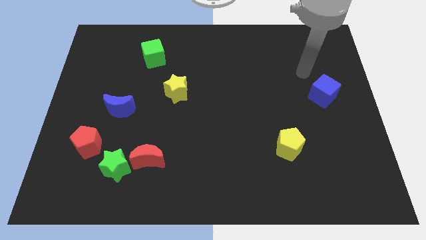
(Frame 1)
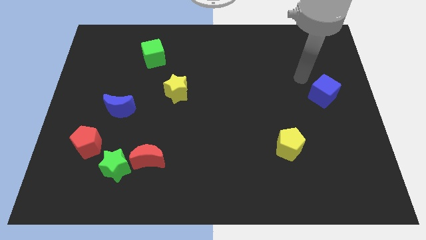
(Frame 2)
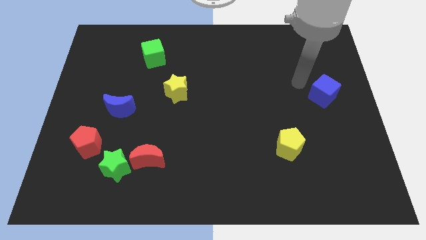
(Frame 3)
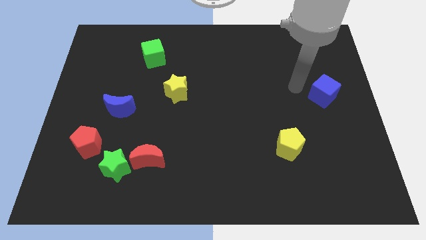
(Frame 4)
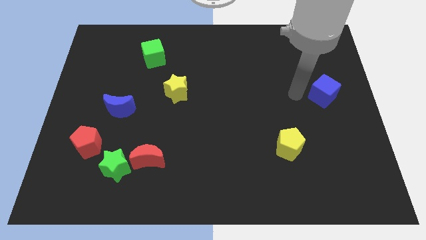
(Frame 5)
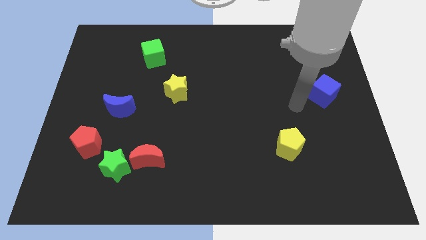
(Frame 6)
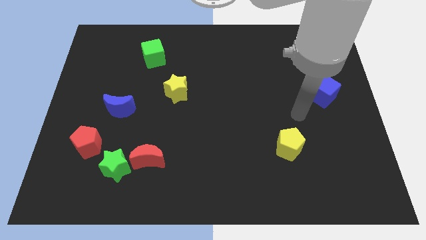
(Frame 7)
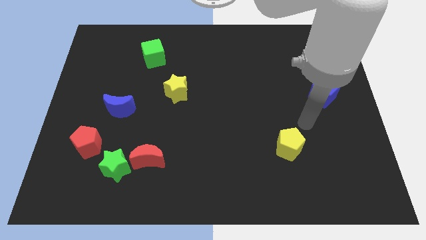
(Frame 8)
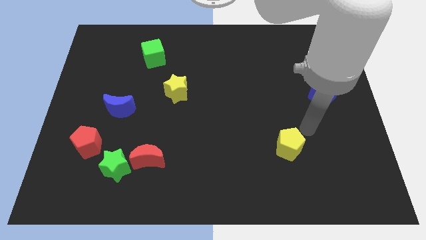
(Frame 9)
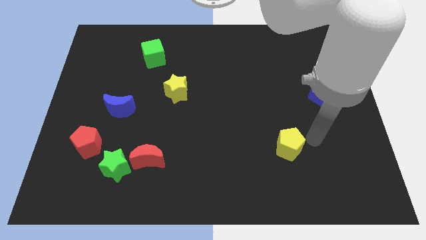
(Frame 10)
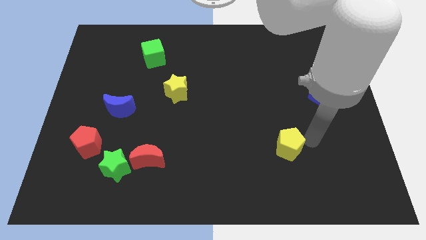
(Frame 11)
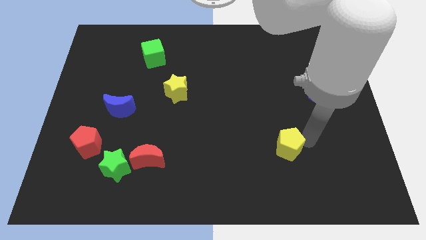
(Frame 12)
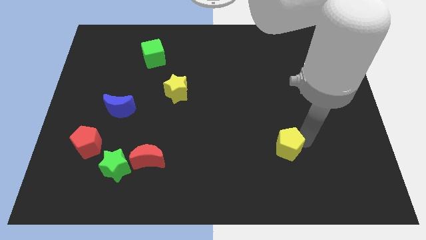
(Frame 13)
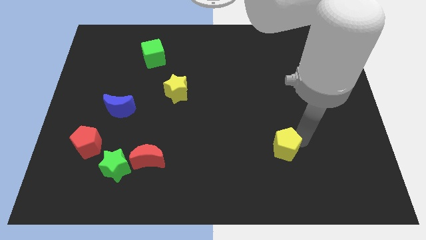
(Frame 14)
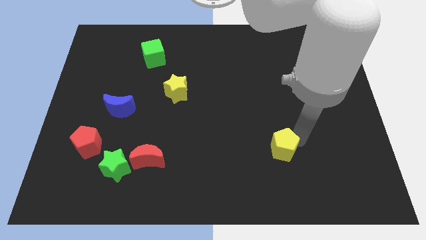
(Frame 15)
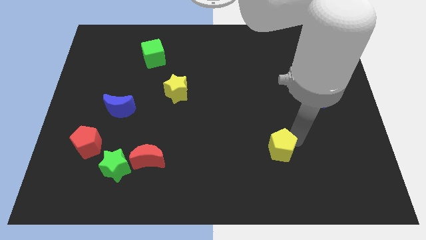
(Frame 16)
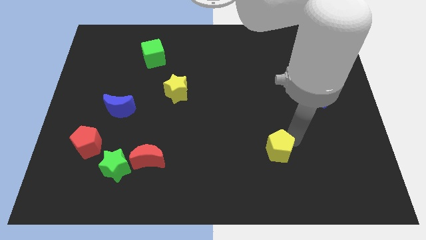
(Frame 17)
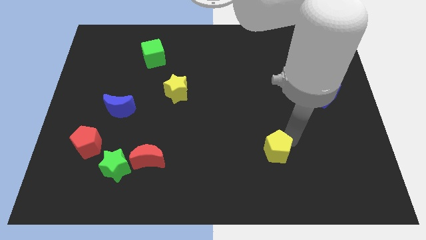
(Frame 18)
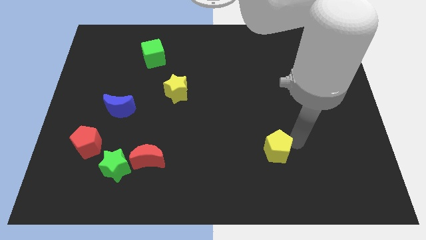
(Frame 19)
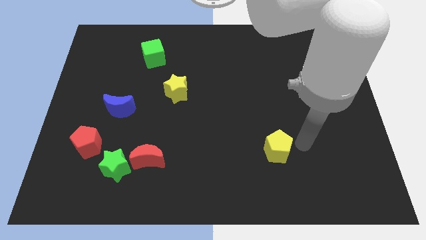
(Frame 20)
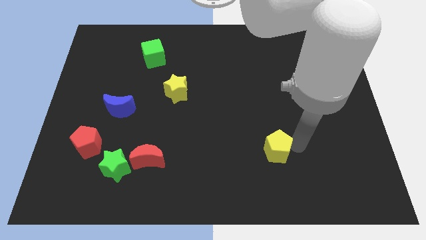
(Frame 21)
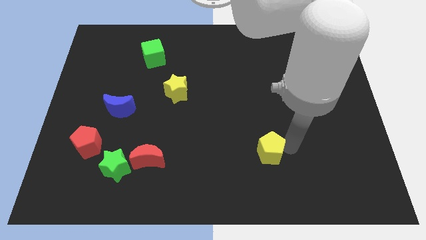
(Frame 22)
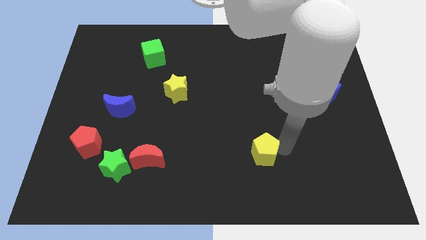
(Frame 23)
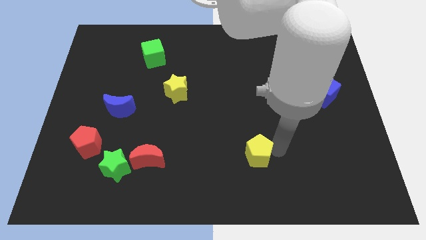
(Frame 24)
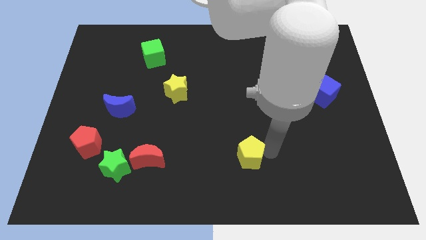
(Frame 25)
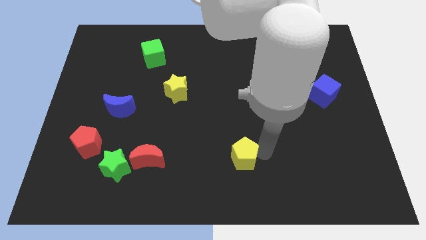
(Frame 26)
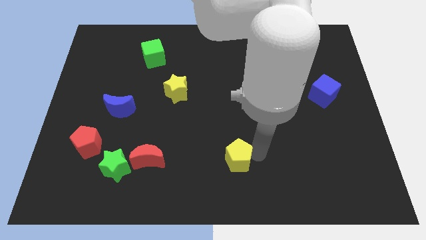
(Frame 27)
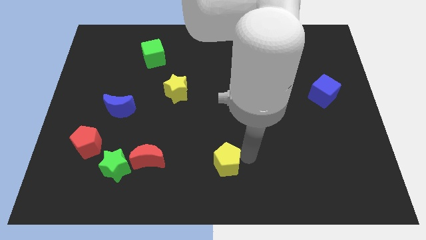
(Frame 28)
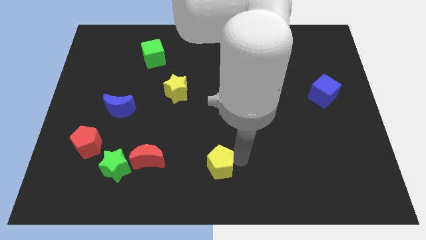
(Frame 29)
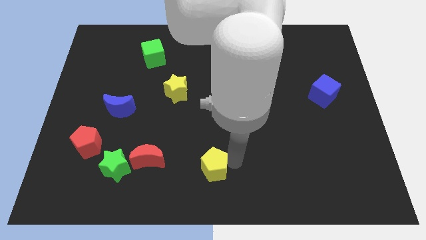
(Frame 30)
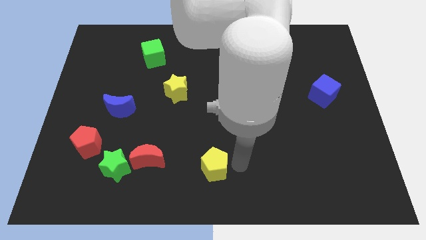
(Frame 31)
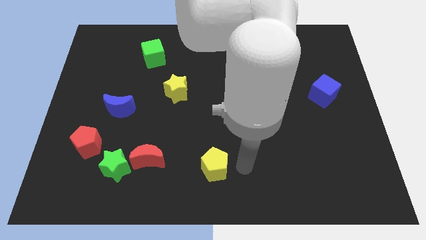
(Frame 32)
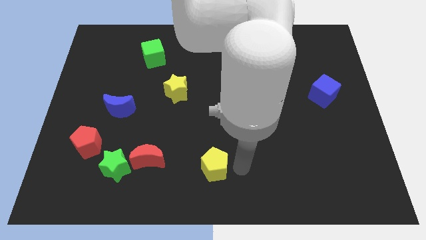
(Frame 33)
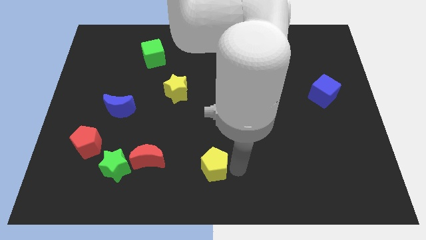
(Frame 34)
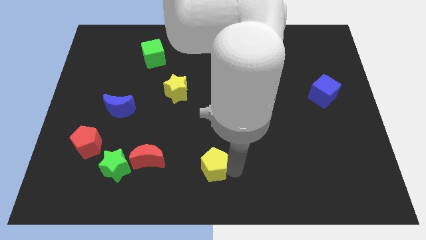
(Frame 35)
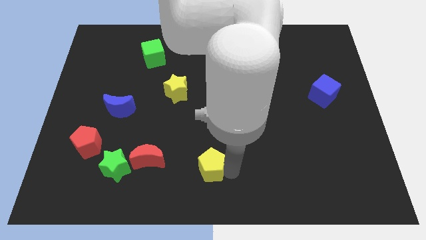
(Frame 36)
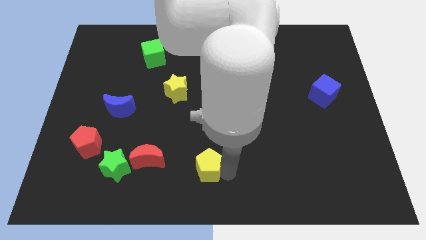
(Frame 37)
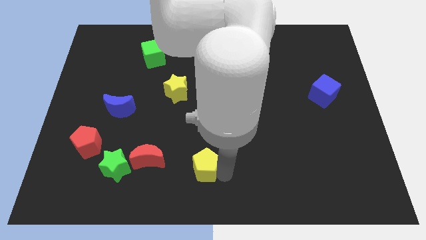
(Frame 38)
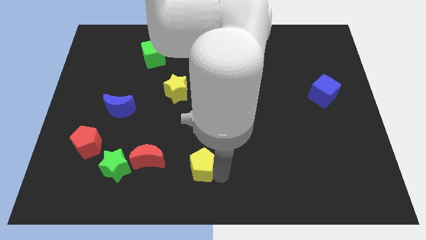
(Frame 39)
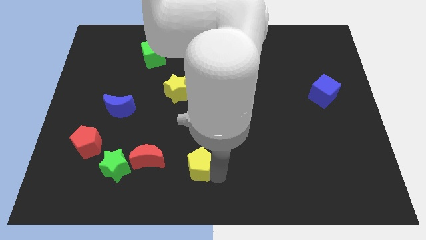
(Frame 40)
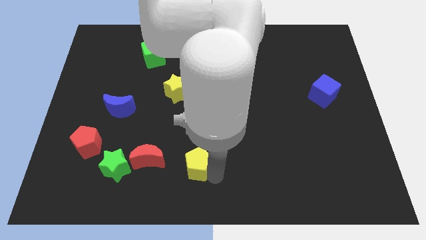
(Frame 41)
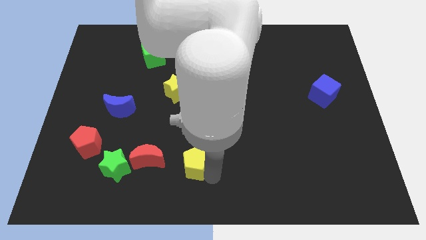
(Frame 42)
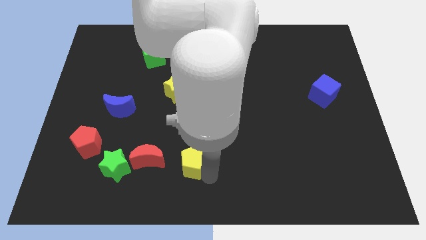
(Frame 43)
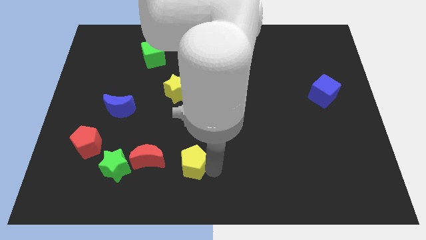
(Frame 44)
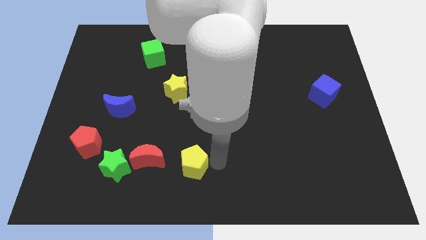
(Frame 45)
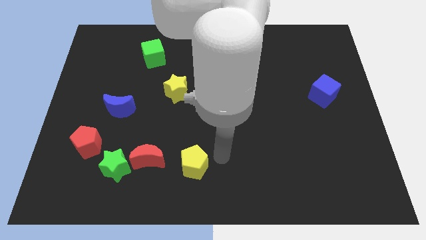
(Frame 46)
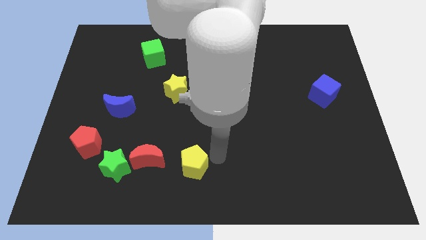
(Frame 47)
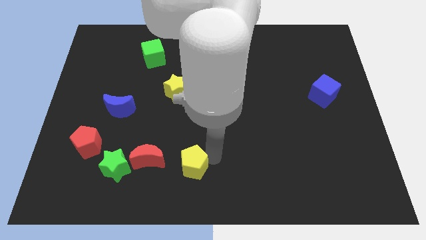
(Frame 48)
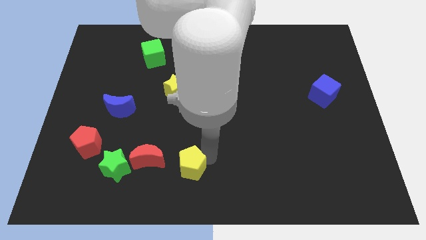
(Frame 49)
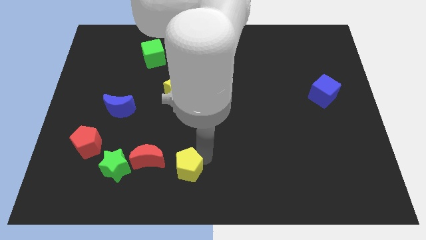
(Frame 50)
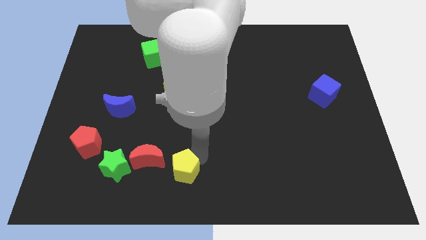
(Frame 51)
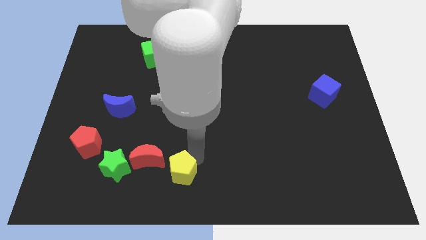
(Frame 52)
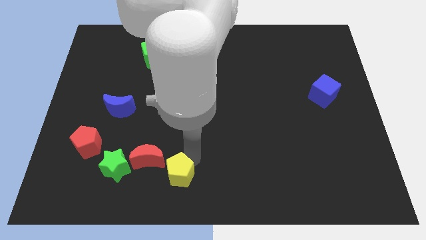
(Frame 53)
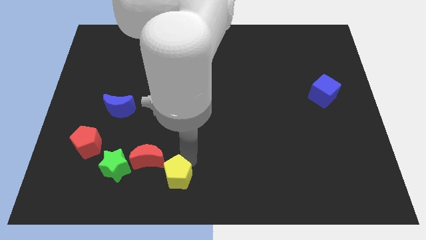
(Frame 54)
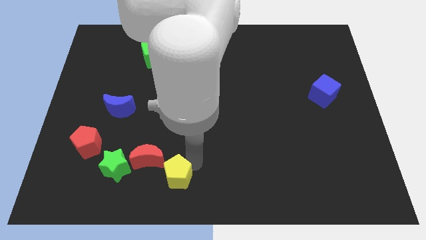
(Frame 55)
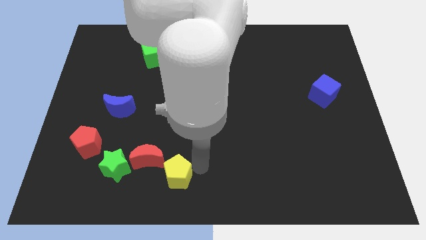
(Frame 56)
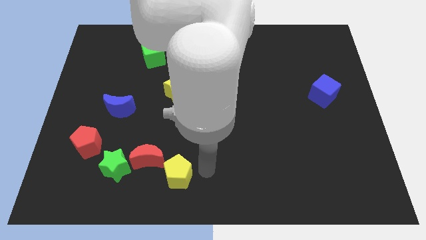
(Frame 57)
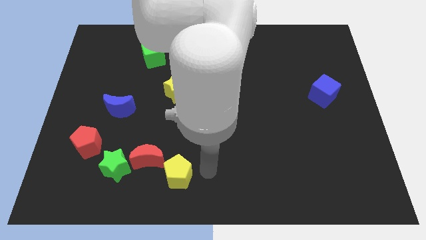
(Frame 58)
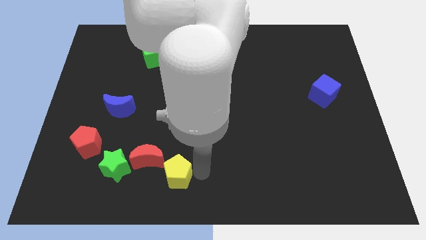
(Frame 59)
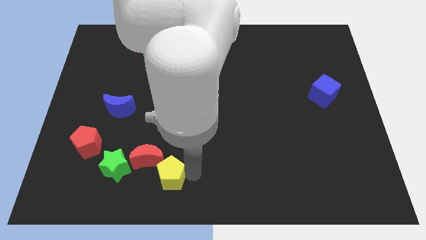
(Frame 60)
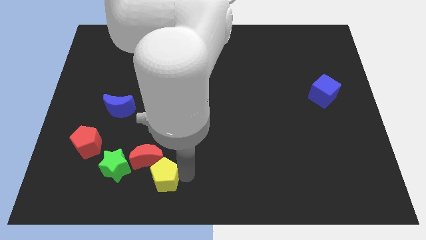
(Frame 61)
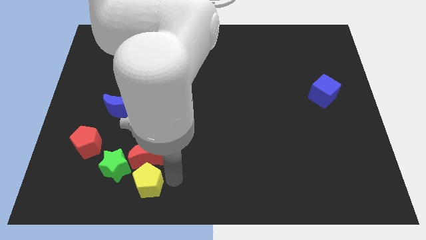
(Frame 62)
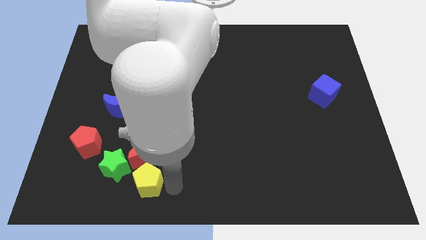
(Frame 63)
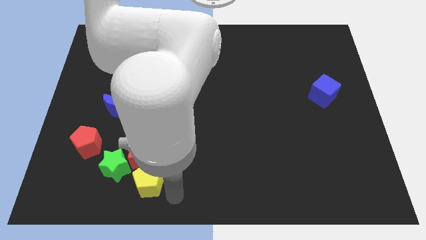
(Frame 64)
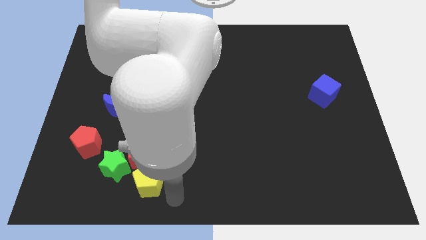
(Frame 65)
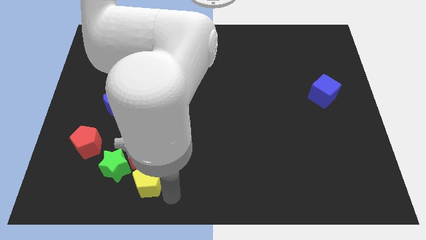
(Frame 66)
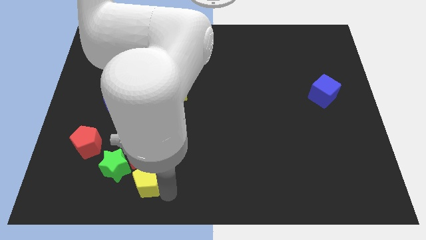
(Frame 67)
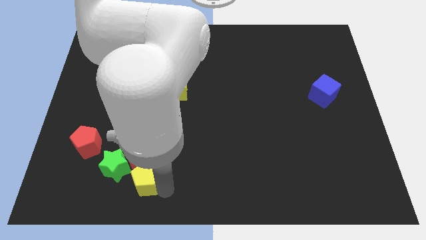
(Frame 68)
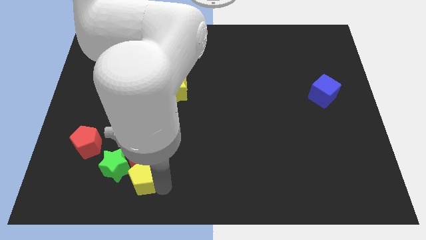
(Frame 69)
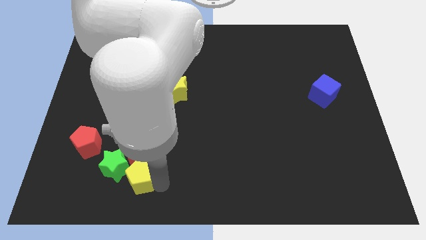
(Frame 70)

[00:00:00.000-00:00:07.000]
push the yellow pentagon to the green star

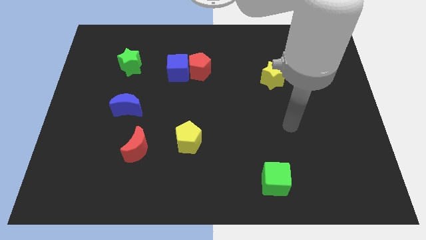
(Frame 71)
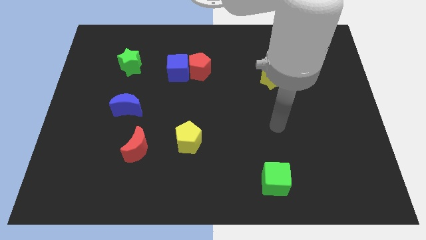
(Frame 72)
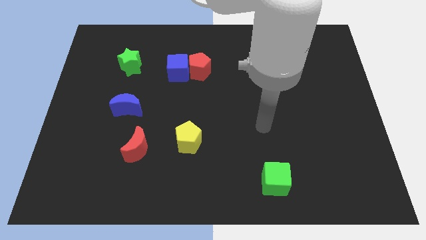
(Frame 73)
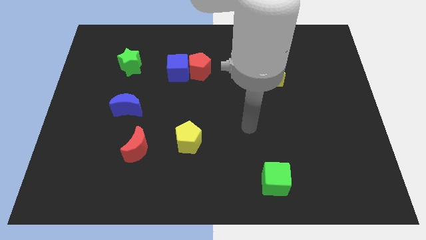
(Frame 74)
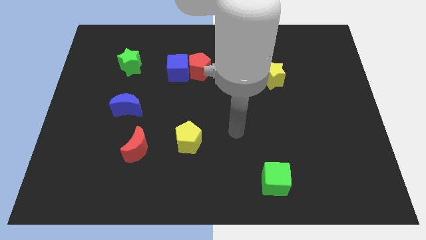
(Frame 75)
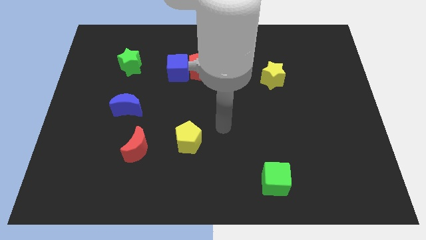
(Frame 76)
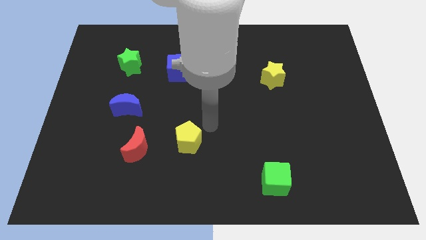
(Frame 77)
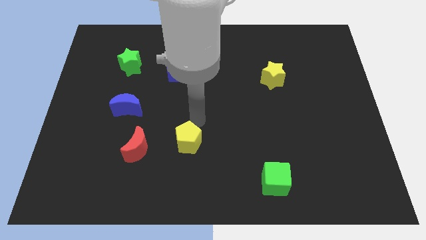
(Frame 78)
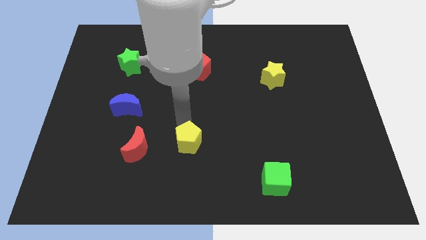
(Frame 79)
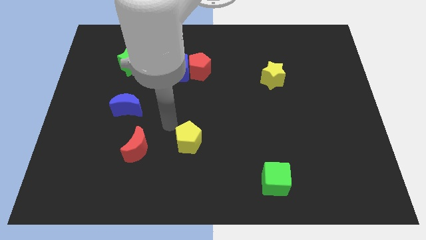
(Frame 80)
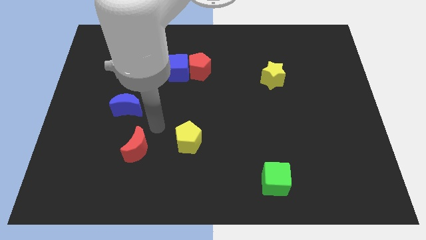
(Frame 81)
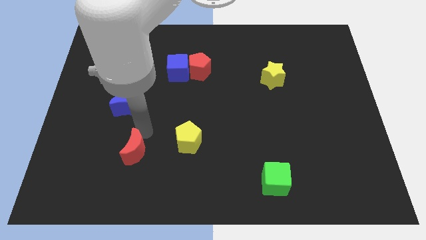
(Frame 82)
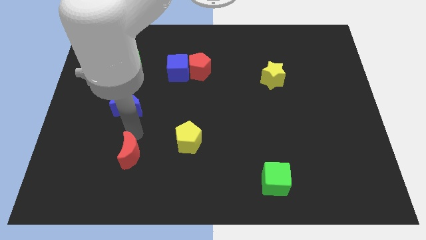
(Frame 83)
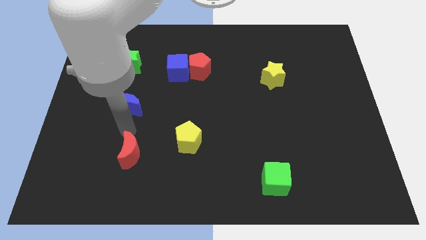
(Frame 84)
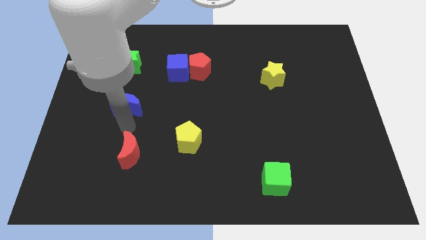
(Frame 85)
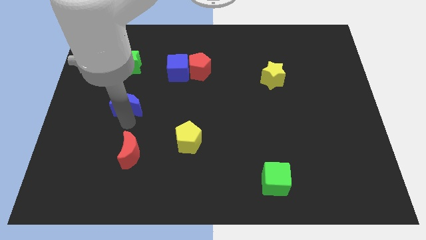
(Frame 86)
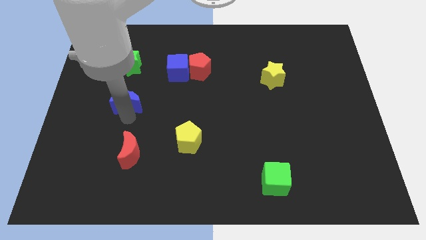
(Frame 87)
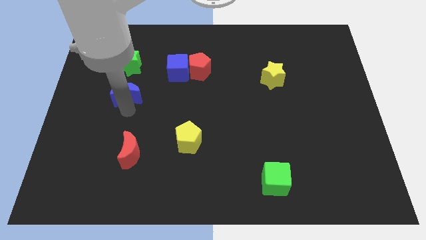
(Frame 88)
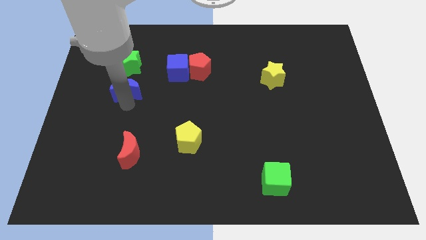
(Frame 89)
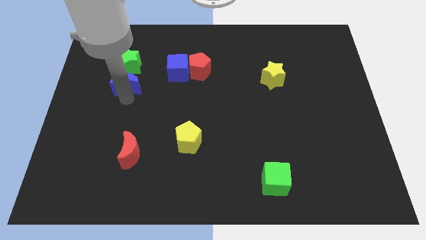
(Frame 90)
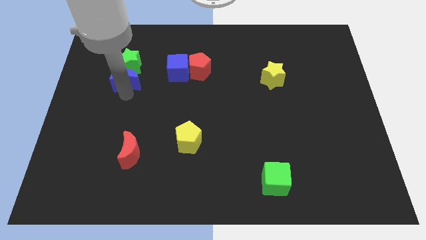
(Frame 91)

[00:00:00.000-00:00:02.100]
move the blue moon close to the green star
